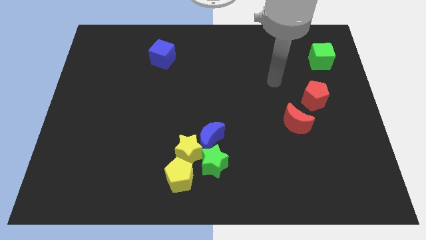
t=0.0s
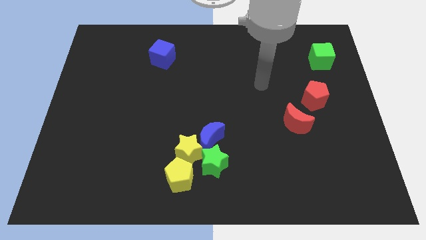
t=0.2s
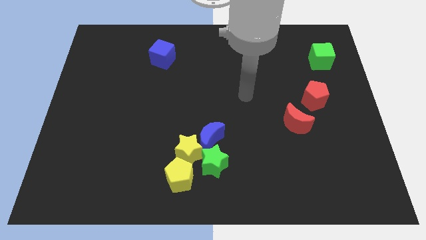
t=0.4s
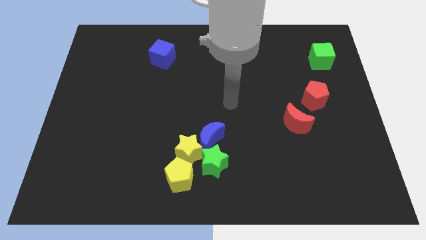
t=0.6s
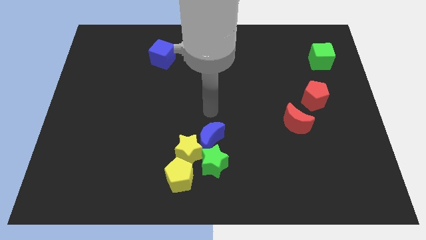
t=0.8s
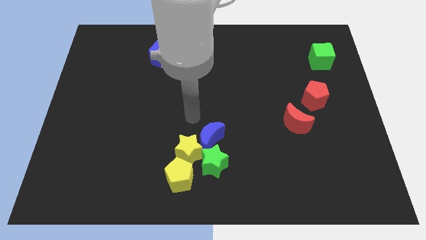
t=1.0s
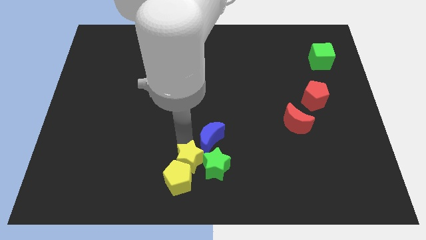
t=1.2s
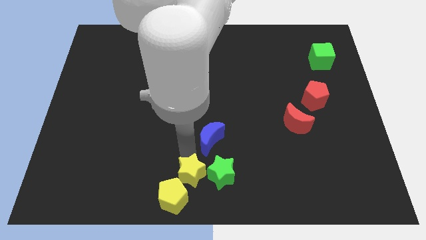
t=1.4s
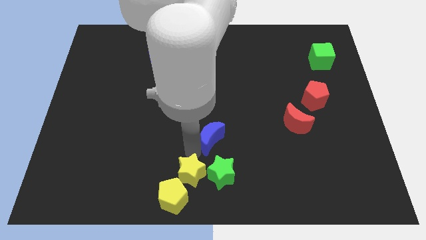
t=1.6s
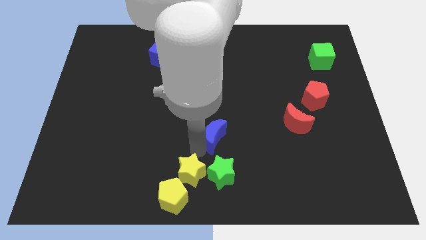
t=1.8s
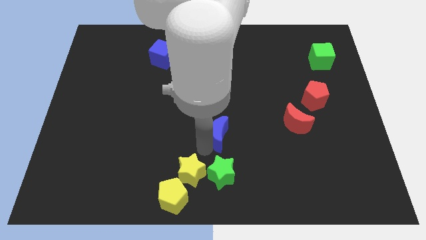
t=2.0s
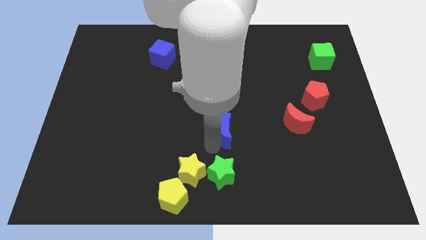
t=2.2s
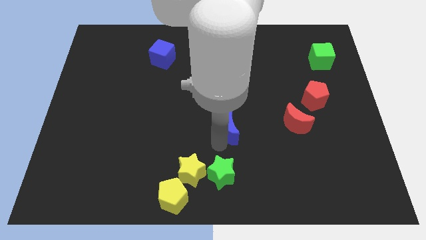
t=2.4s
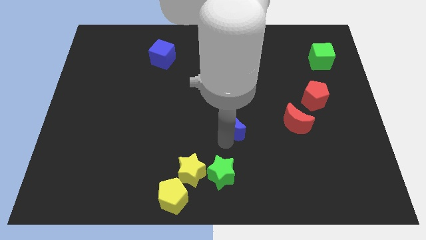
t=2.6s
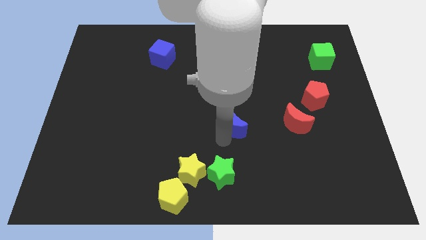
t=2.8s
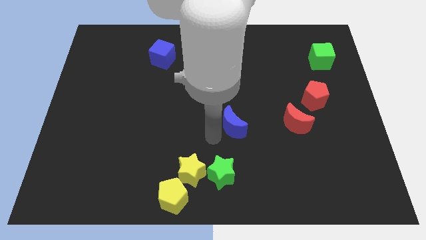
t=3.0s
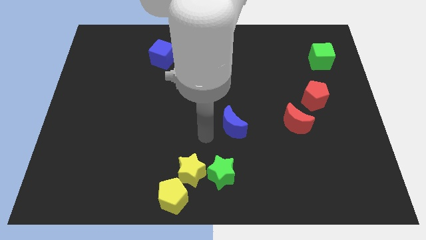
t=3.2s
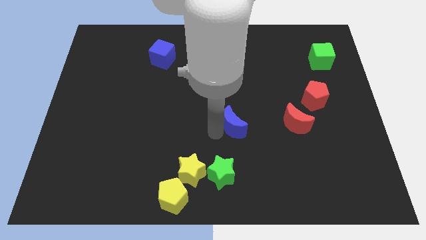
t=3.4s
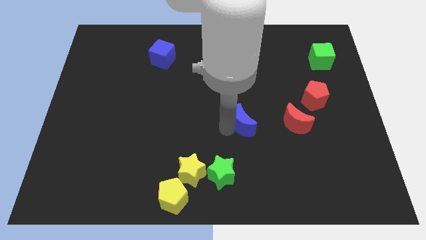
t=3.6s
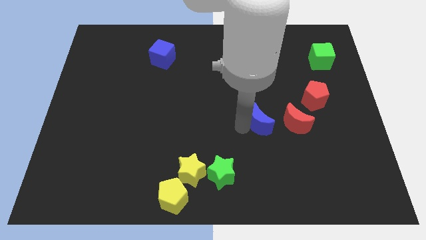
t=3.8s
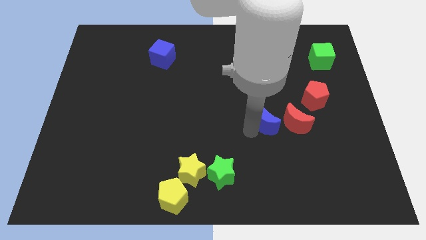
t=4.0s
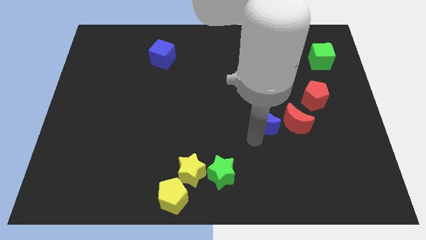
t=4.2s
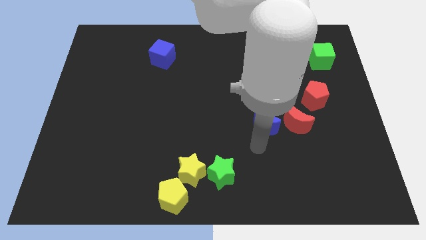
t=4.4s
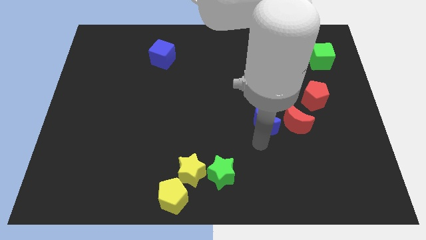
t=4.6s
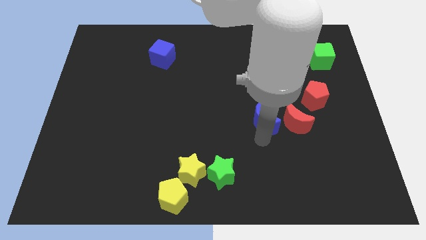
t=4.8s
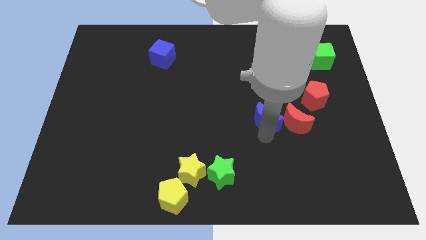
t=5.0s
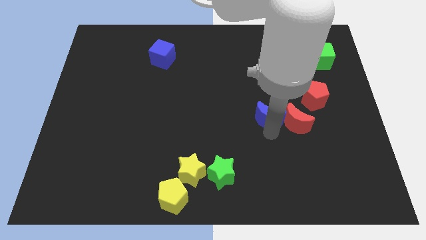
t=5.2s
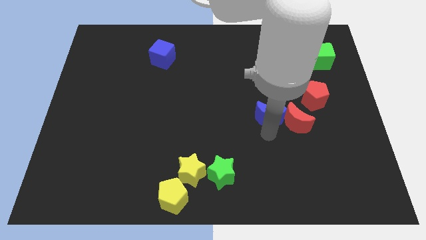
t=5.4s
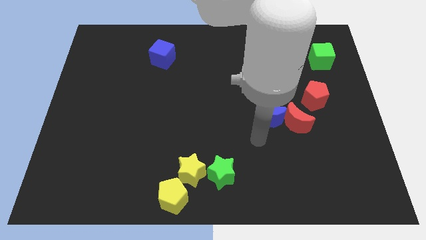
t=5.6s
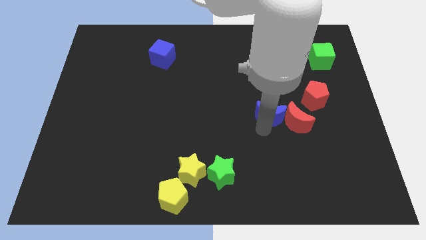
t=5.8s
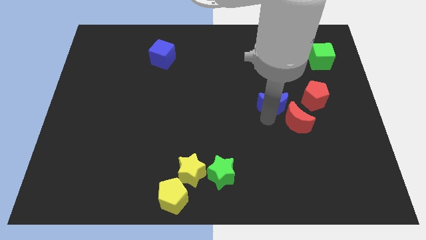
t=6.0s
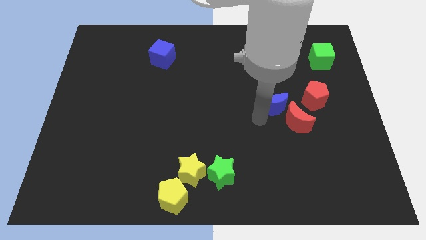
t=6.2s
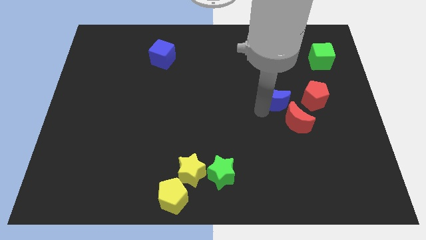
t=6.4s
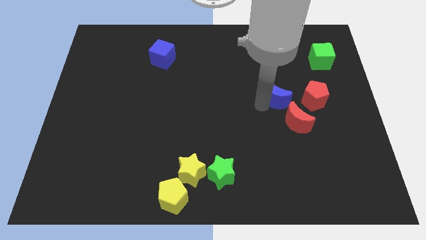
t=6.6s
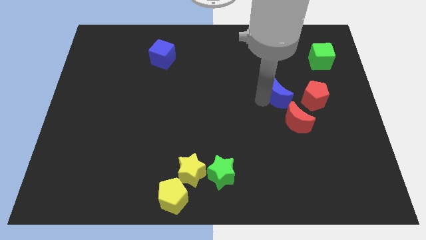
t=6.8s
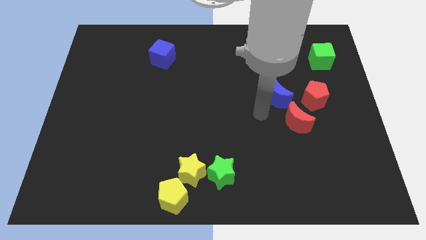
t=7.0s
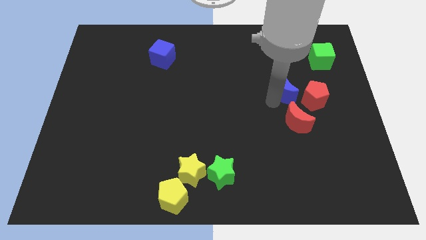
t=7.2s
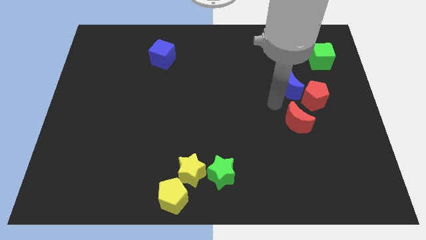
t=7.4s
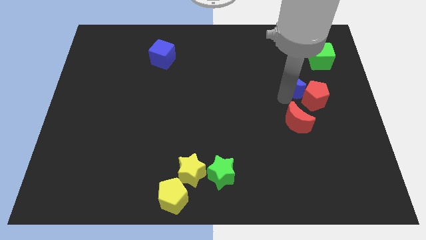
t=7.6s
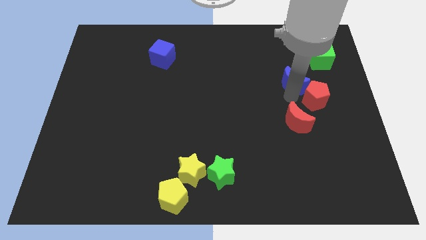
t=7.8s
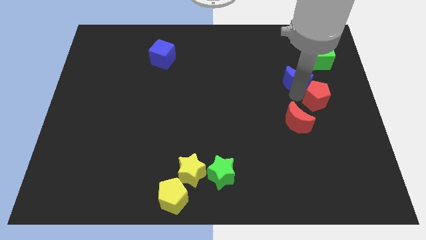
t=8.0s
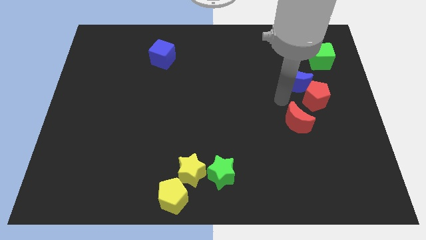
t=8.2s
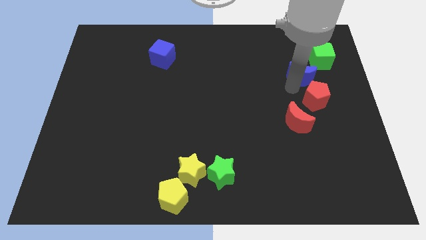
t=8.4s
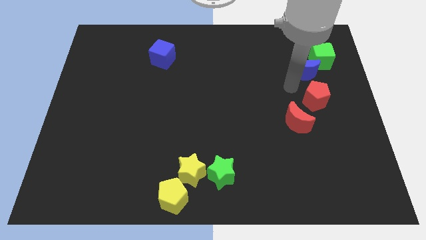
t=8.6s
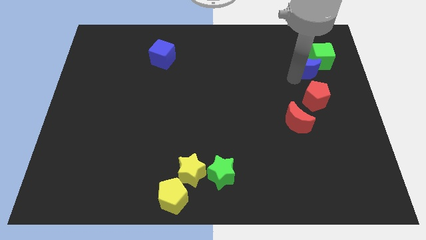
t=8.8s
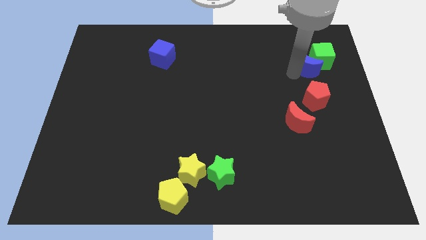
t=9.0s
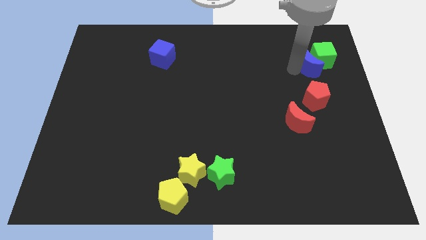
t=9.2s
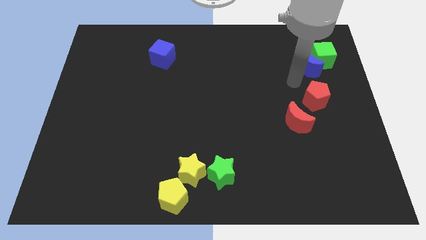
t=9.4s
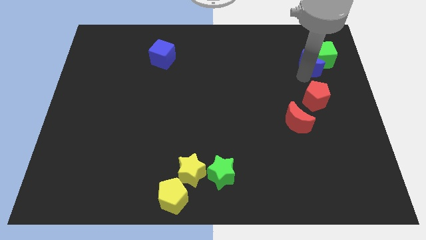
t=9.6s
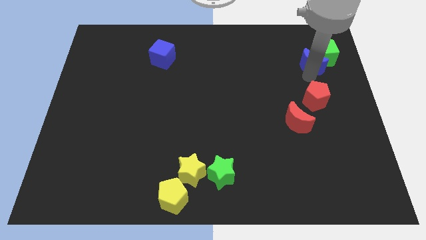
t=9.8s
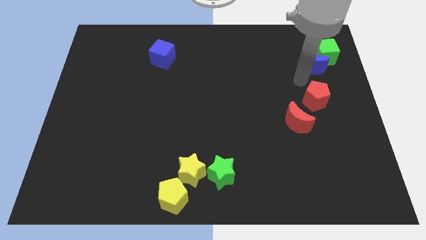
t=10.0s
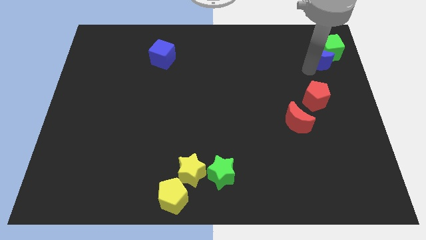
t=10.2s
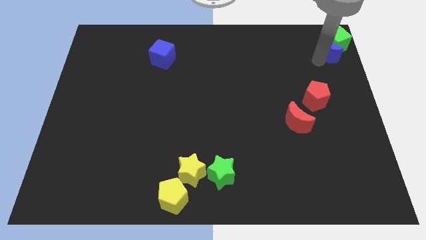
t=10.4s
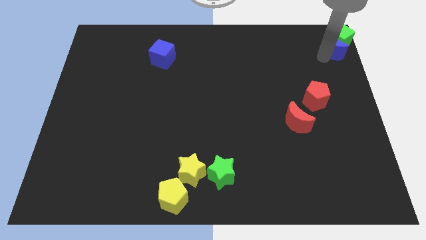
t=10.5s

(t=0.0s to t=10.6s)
put the blue moon to the top right corner

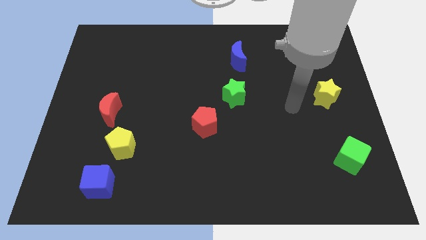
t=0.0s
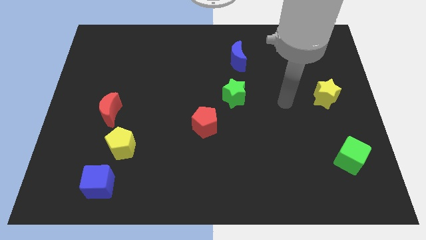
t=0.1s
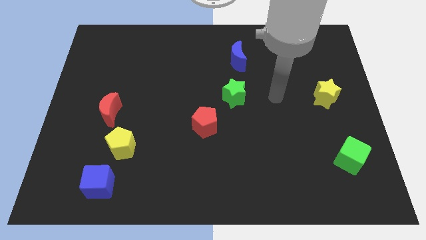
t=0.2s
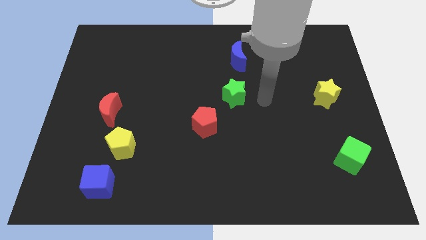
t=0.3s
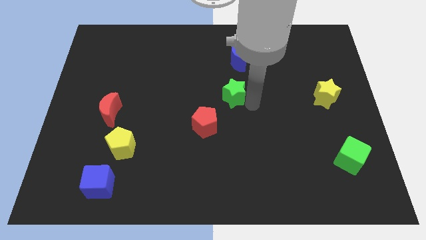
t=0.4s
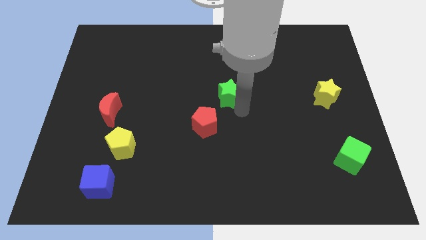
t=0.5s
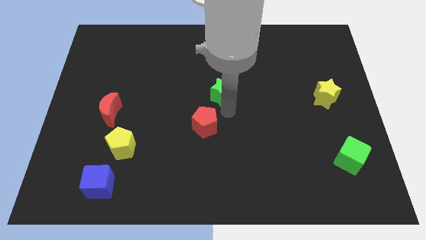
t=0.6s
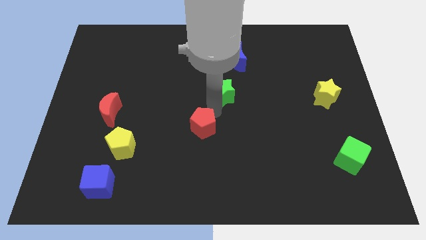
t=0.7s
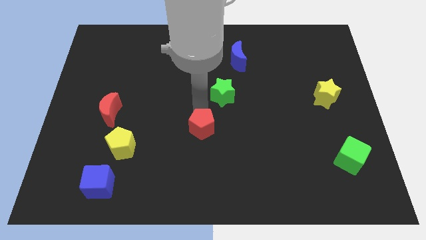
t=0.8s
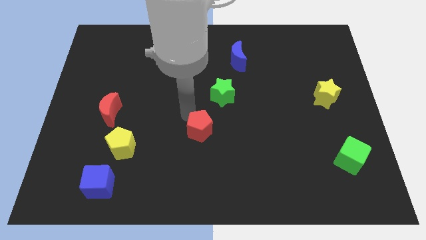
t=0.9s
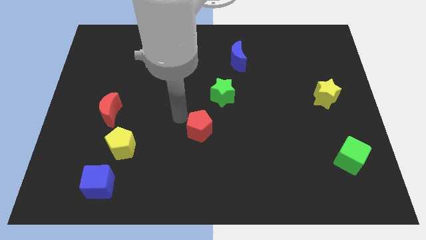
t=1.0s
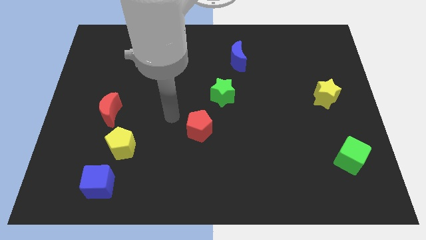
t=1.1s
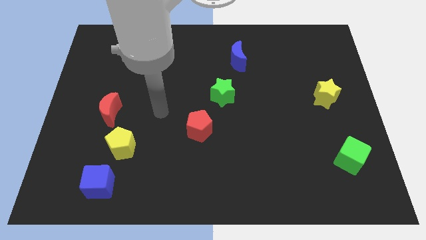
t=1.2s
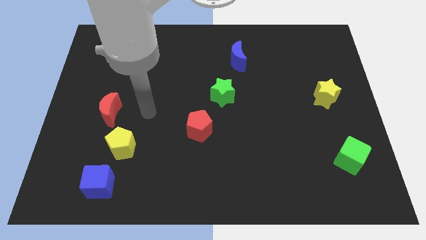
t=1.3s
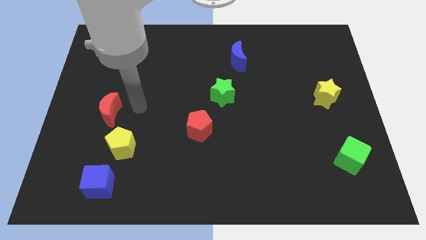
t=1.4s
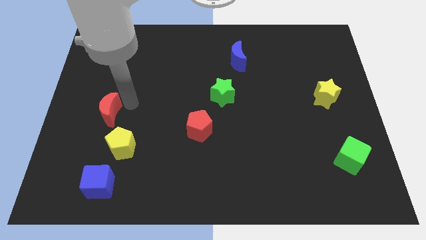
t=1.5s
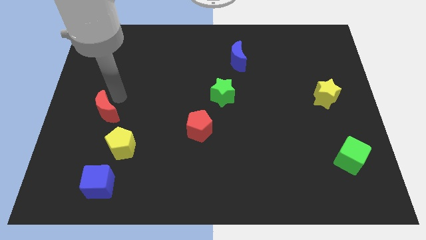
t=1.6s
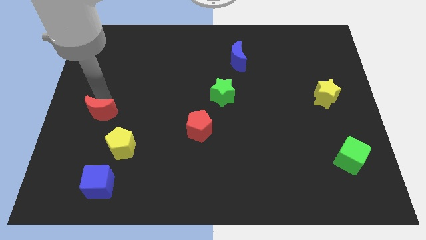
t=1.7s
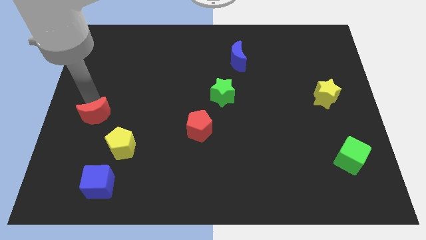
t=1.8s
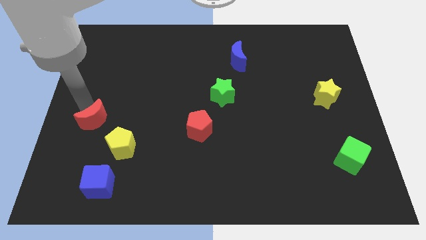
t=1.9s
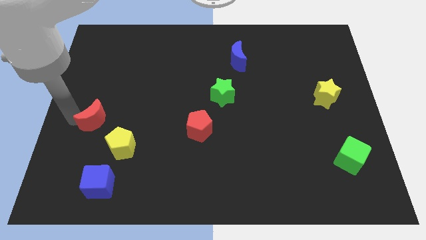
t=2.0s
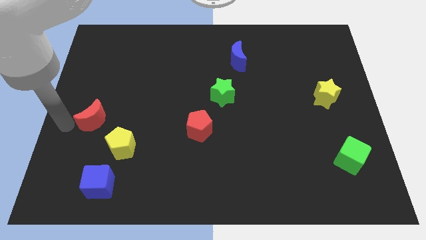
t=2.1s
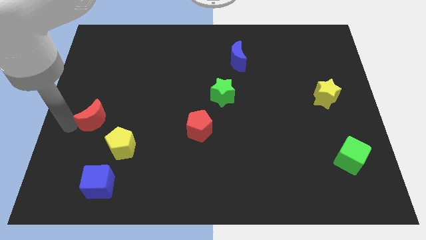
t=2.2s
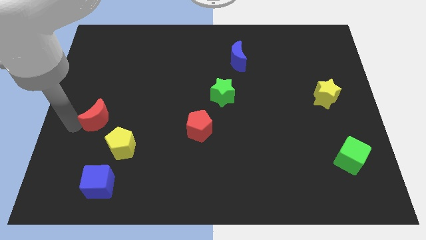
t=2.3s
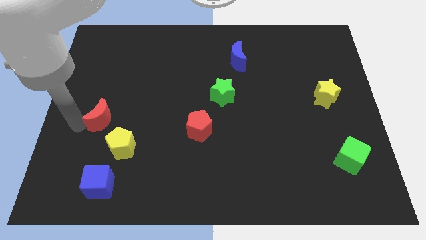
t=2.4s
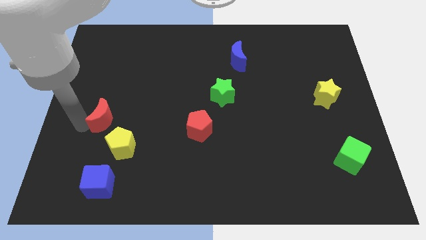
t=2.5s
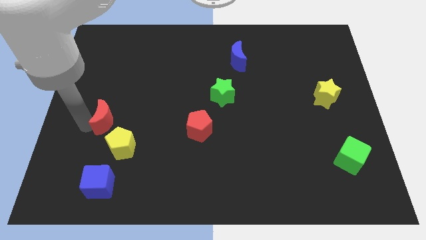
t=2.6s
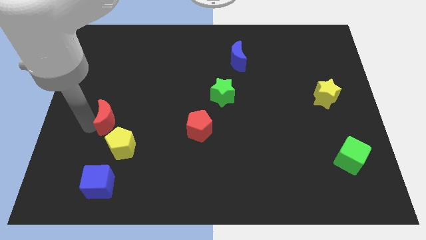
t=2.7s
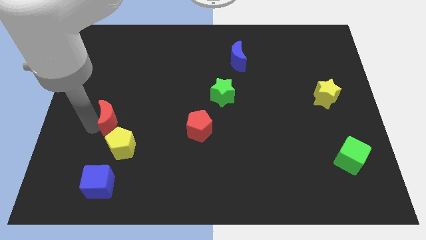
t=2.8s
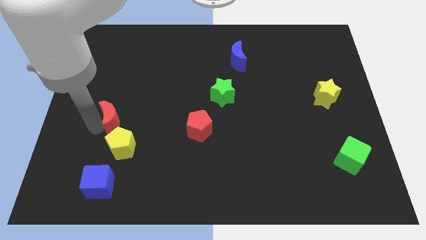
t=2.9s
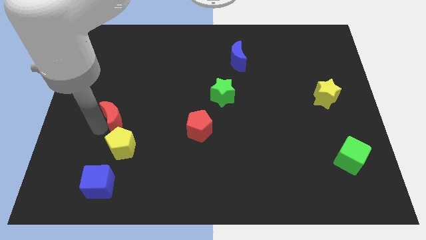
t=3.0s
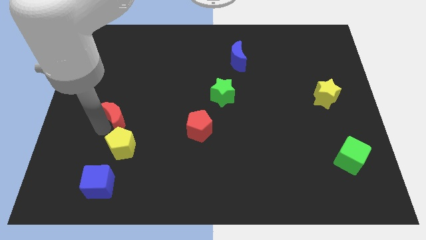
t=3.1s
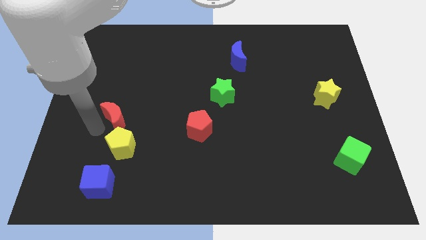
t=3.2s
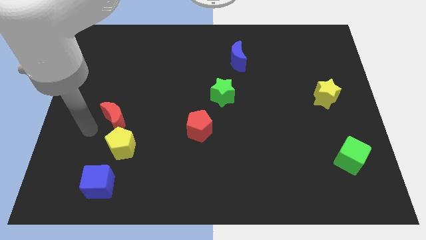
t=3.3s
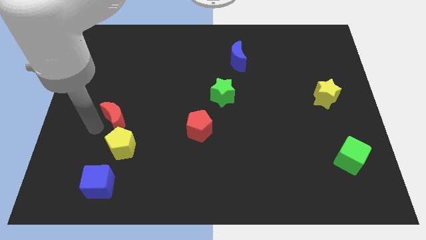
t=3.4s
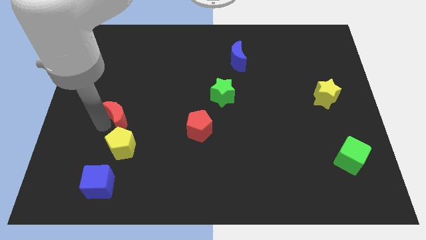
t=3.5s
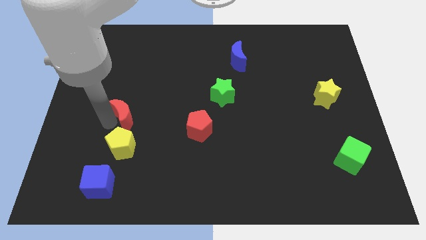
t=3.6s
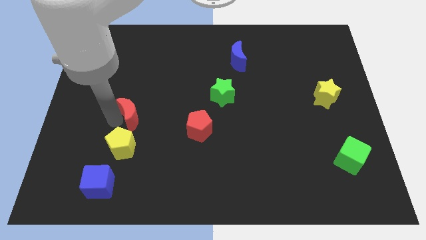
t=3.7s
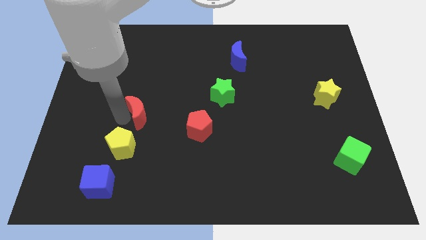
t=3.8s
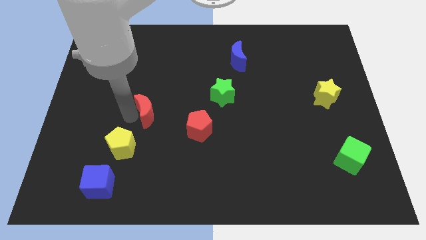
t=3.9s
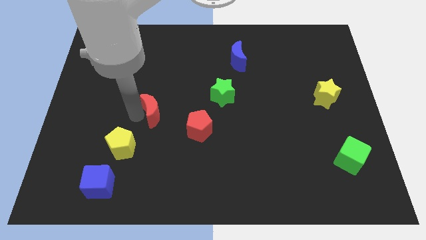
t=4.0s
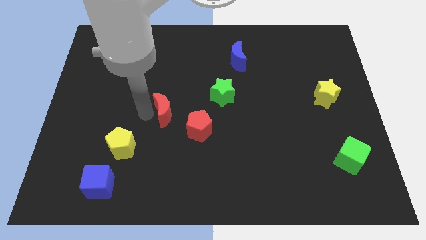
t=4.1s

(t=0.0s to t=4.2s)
put the red moon to the middle
